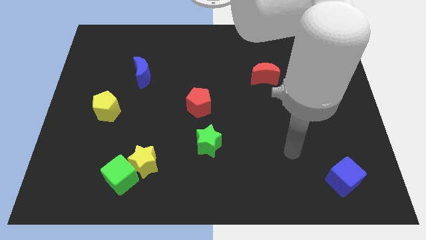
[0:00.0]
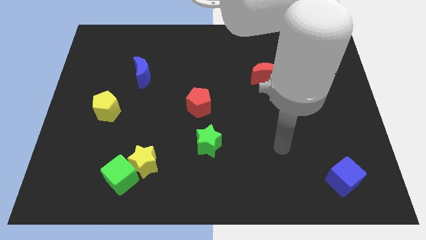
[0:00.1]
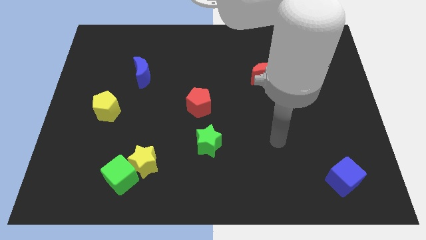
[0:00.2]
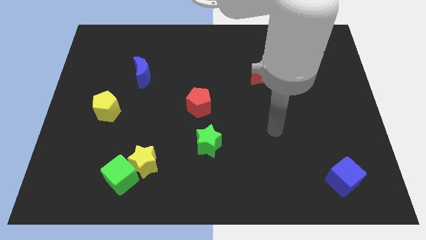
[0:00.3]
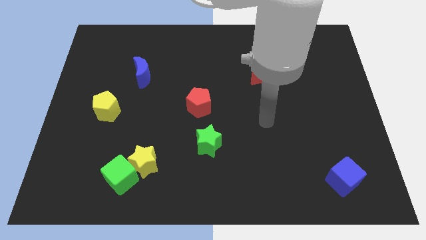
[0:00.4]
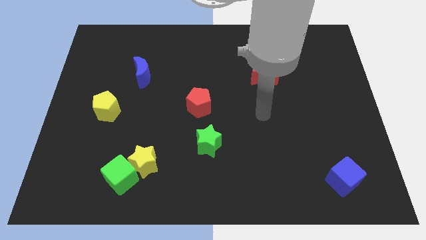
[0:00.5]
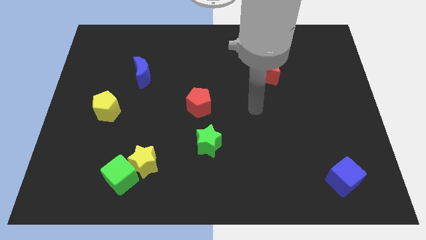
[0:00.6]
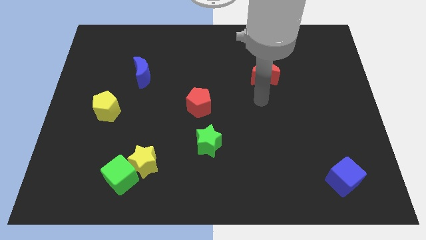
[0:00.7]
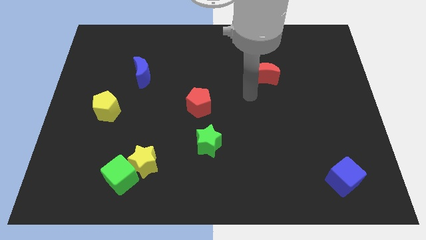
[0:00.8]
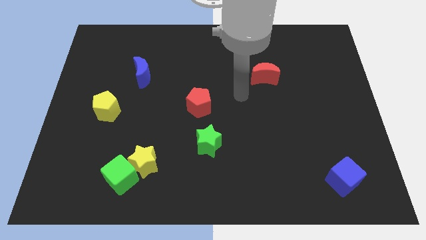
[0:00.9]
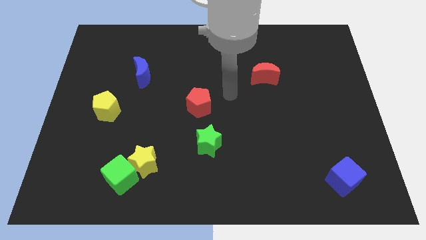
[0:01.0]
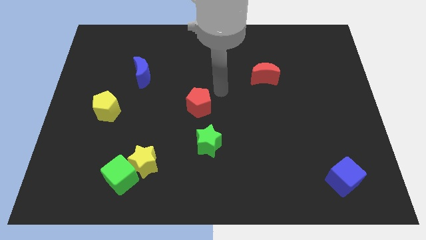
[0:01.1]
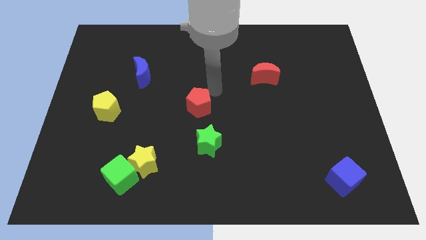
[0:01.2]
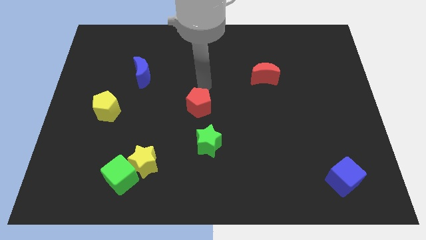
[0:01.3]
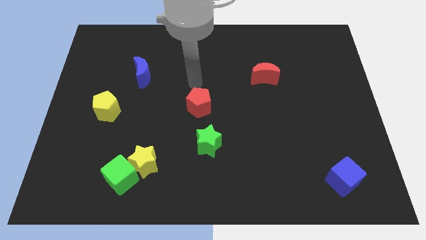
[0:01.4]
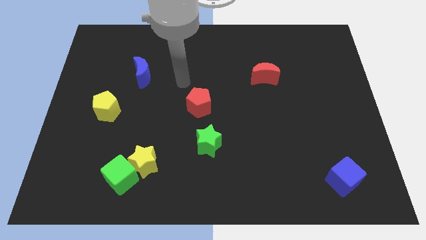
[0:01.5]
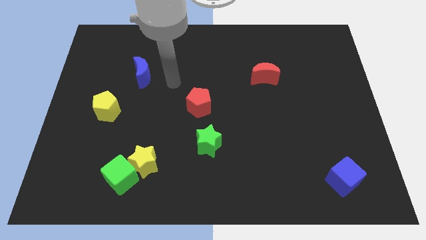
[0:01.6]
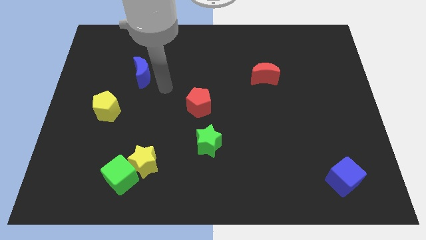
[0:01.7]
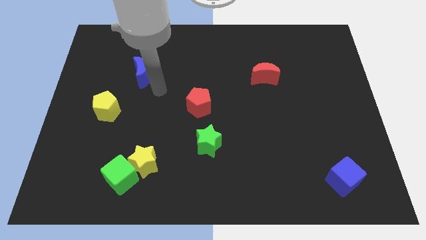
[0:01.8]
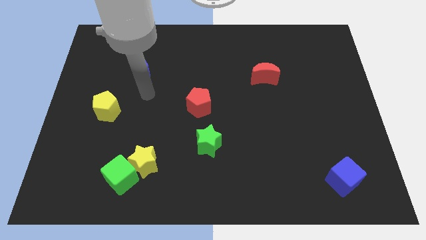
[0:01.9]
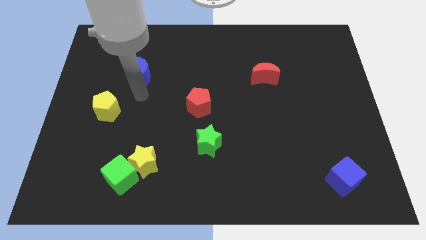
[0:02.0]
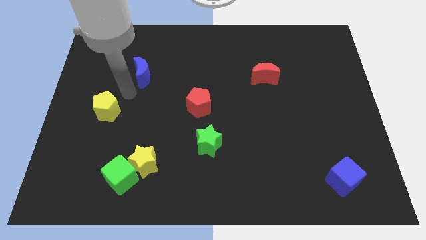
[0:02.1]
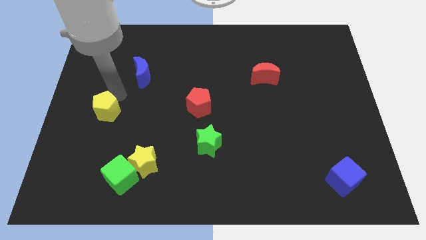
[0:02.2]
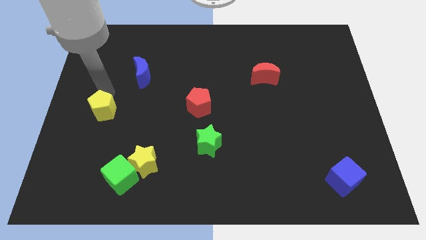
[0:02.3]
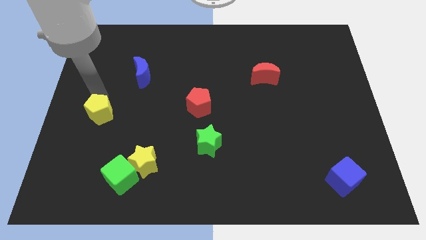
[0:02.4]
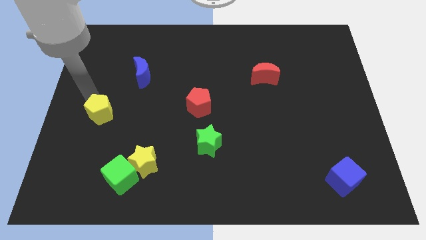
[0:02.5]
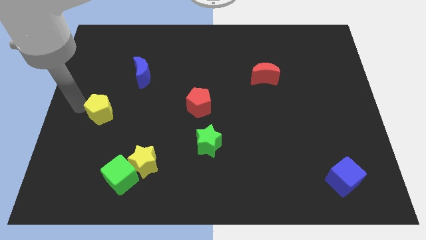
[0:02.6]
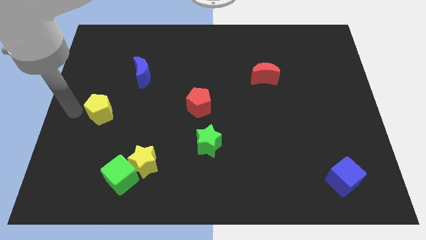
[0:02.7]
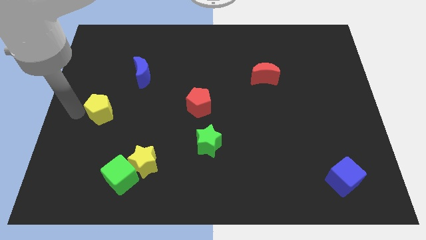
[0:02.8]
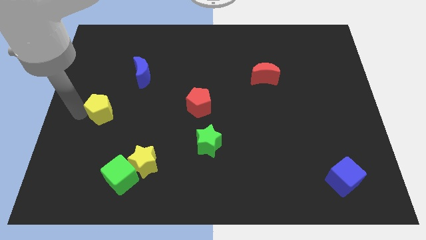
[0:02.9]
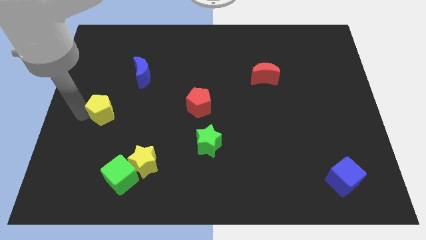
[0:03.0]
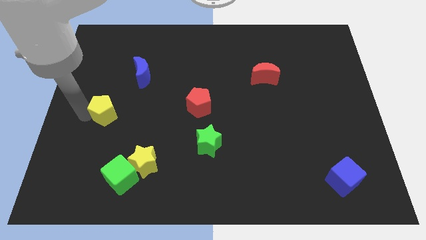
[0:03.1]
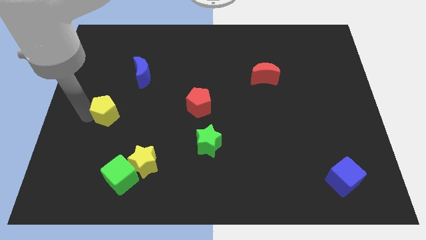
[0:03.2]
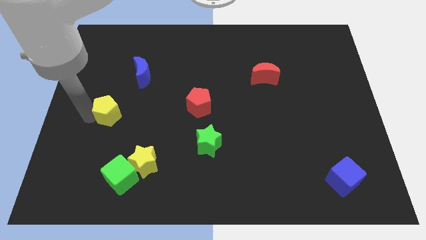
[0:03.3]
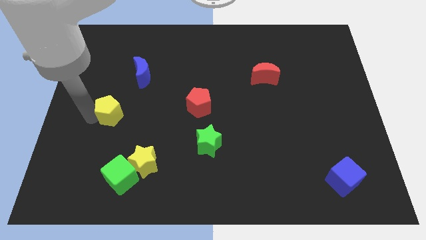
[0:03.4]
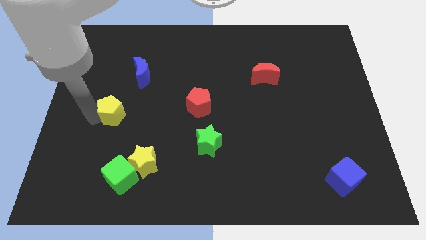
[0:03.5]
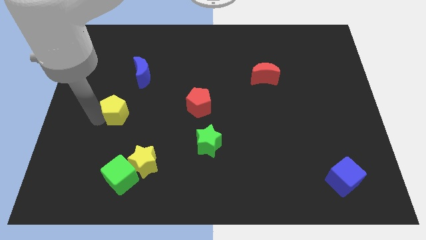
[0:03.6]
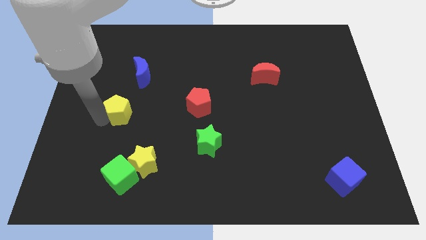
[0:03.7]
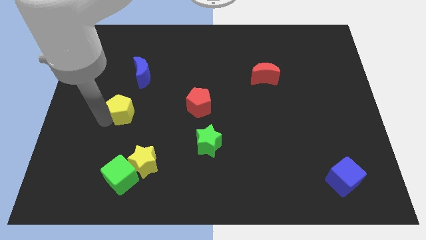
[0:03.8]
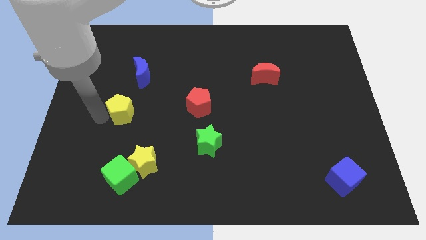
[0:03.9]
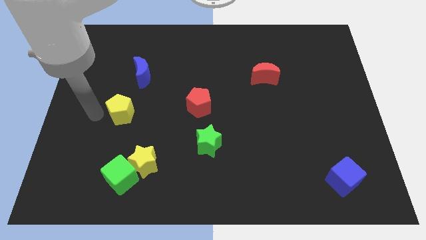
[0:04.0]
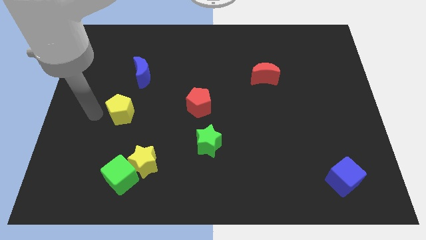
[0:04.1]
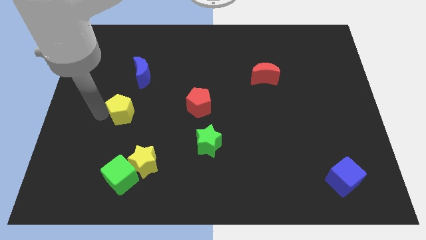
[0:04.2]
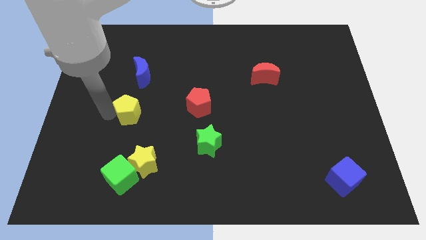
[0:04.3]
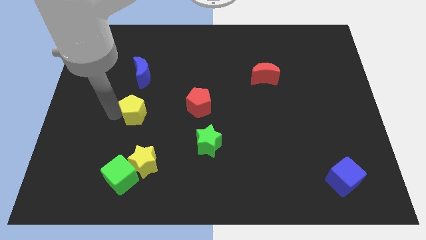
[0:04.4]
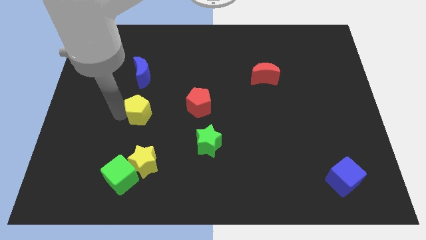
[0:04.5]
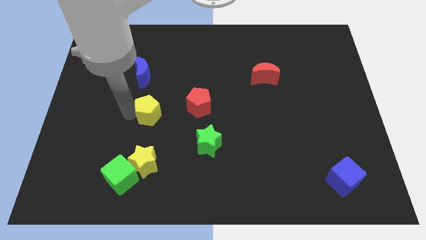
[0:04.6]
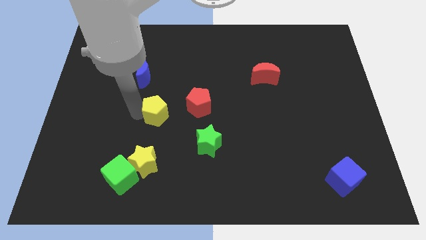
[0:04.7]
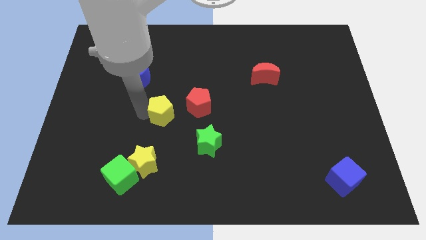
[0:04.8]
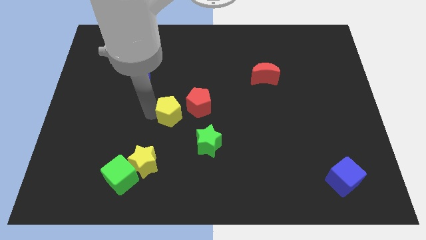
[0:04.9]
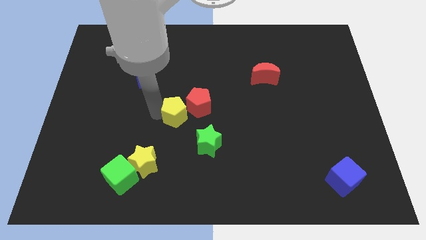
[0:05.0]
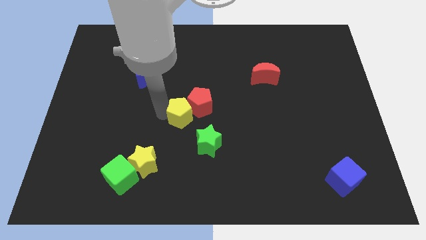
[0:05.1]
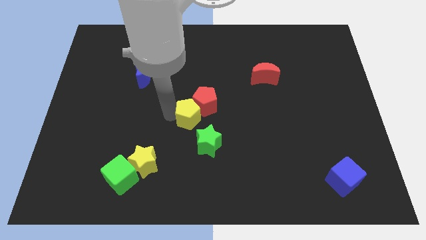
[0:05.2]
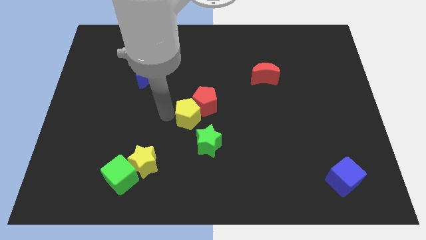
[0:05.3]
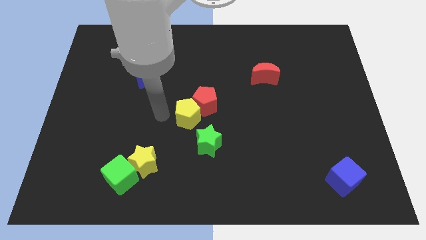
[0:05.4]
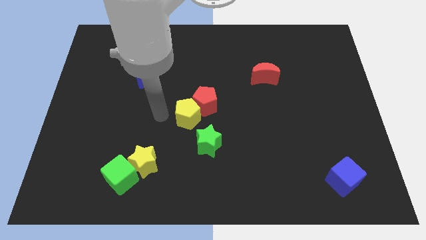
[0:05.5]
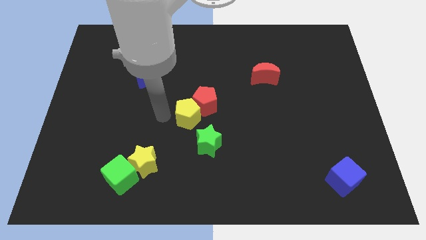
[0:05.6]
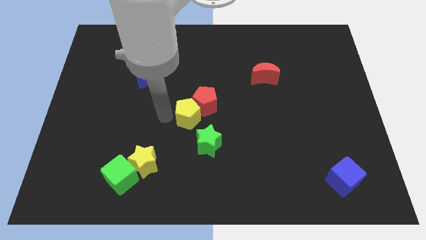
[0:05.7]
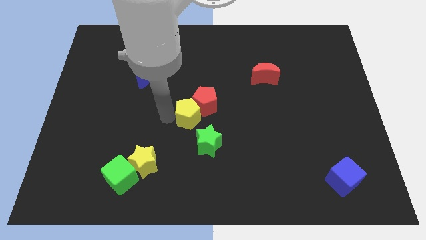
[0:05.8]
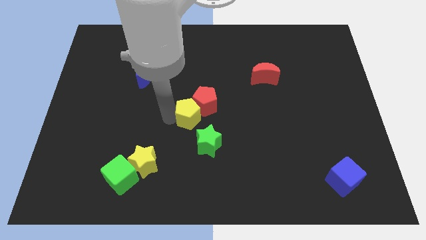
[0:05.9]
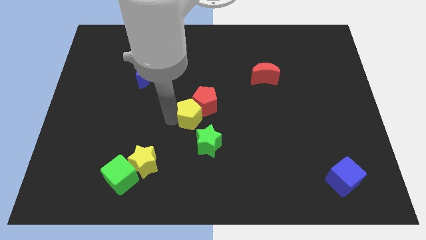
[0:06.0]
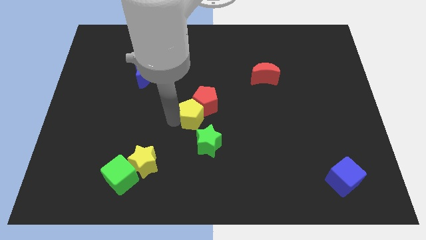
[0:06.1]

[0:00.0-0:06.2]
slide the yellow pentagon to the right

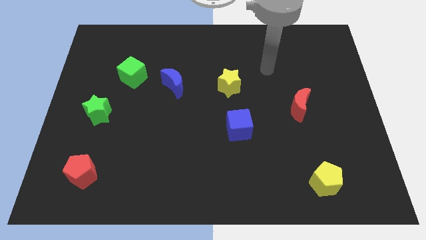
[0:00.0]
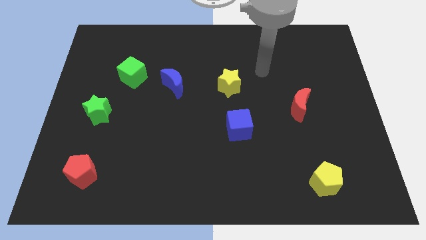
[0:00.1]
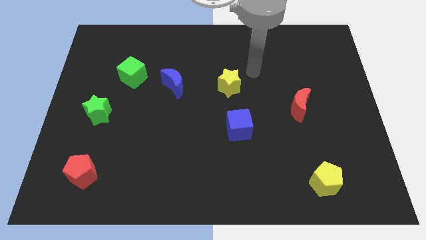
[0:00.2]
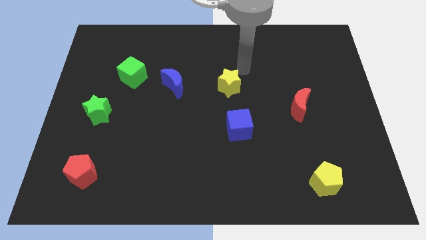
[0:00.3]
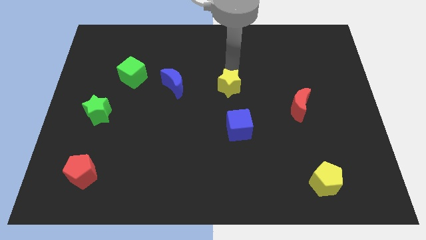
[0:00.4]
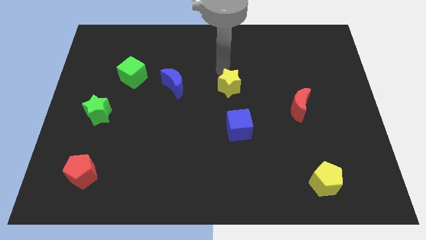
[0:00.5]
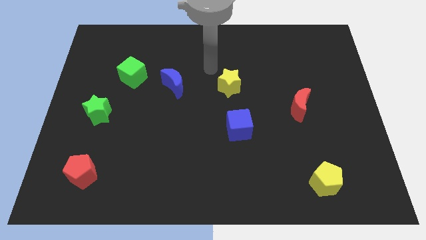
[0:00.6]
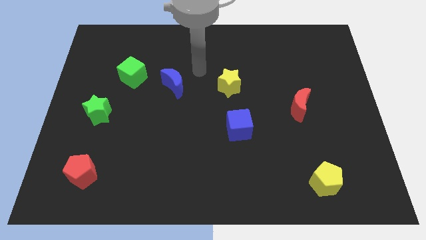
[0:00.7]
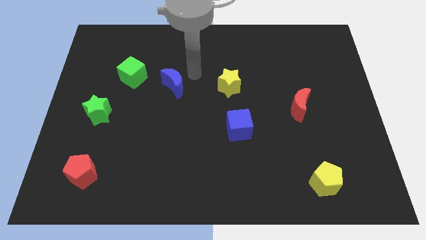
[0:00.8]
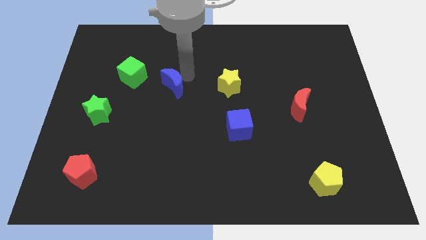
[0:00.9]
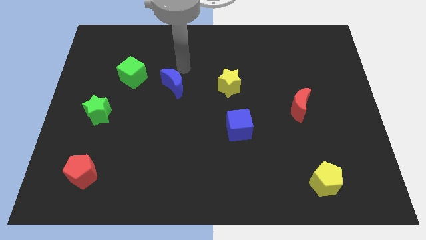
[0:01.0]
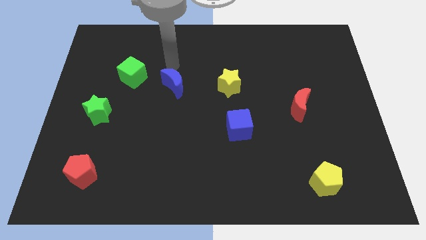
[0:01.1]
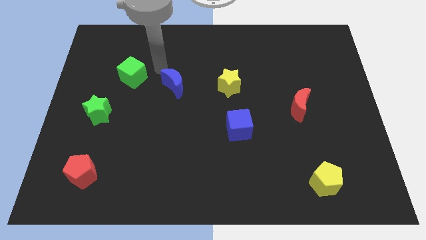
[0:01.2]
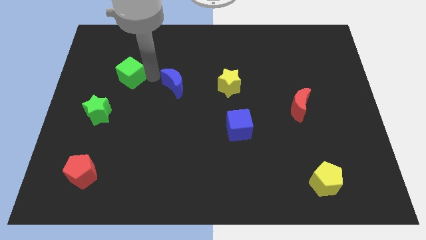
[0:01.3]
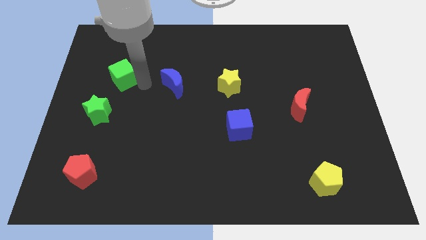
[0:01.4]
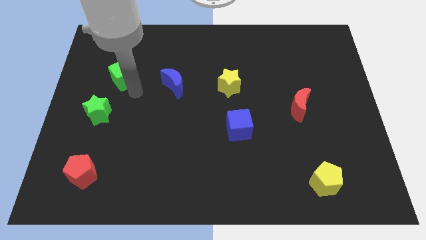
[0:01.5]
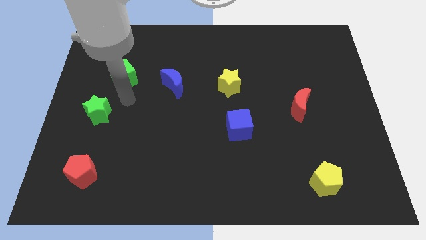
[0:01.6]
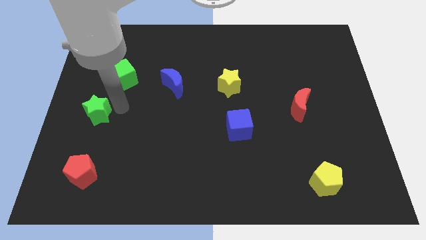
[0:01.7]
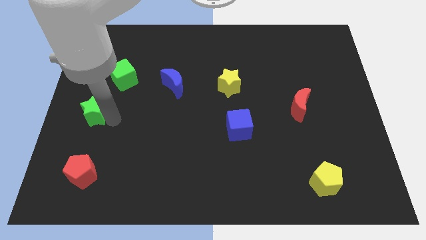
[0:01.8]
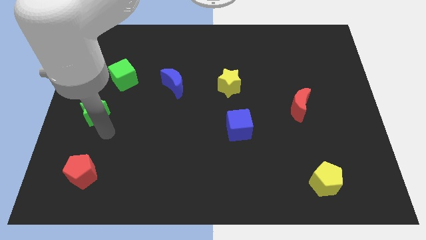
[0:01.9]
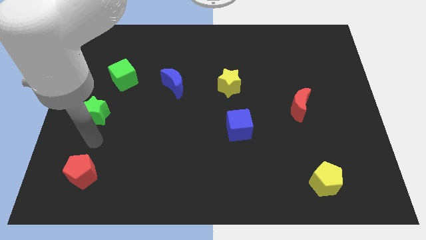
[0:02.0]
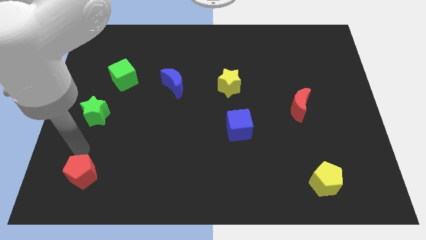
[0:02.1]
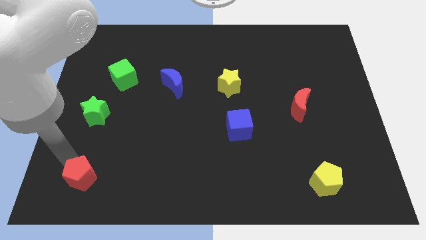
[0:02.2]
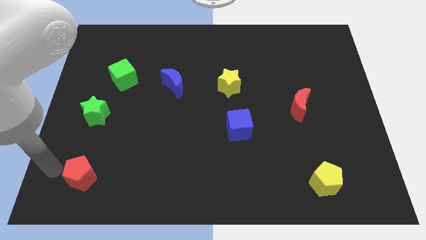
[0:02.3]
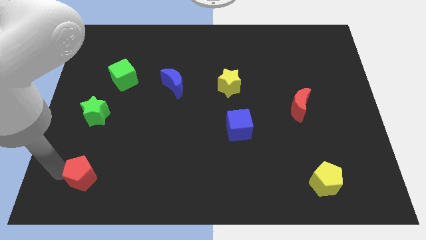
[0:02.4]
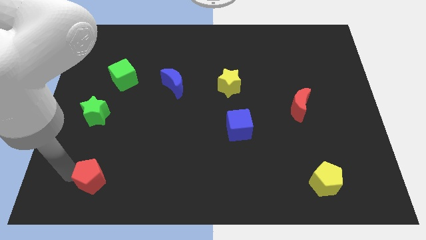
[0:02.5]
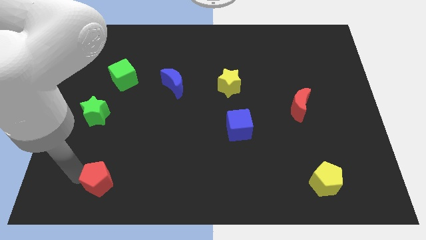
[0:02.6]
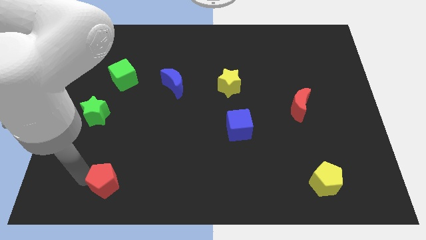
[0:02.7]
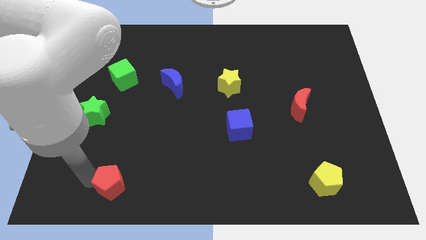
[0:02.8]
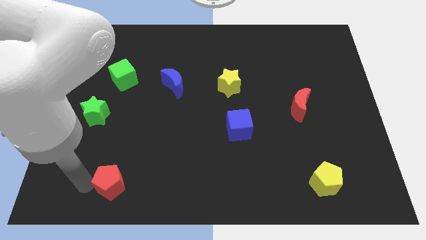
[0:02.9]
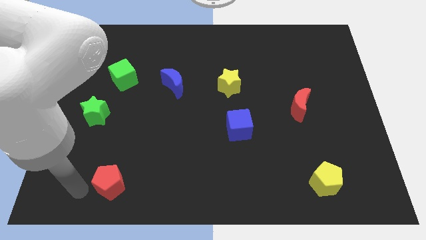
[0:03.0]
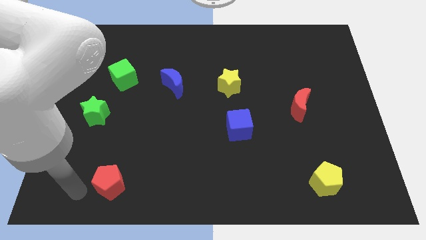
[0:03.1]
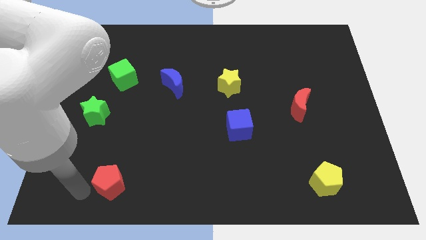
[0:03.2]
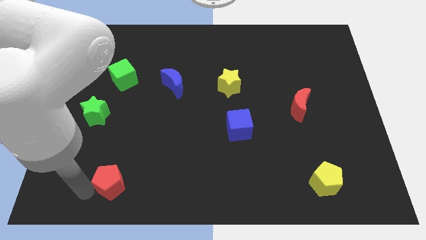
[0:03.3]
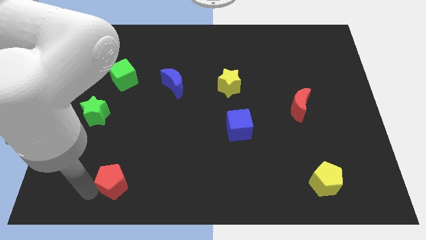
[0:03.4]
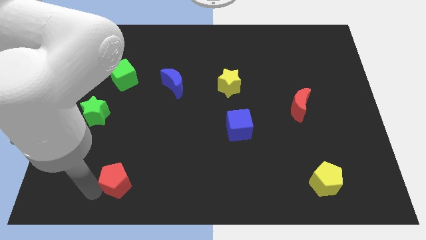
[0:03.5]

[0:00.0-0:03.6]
slide the red pentagon to the right a little bit
